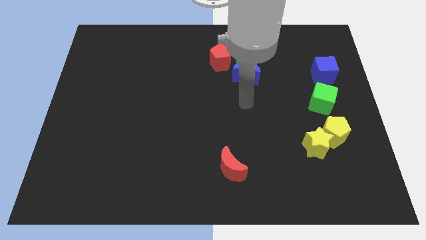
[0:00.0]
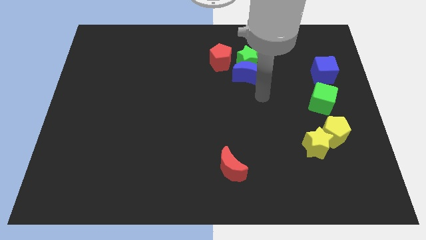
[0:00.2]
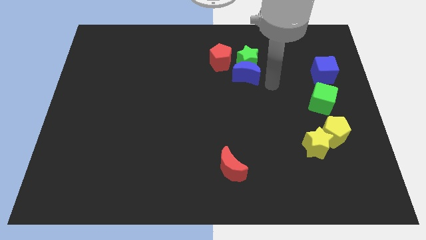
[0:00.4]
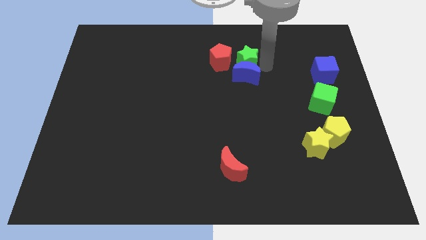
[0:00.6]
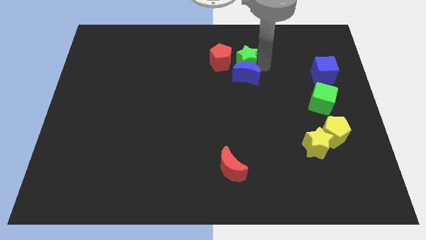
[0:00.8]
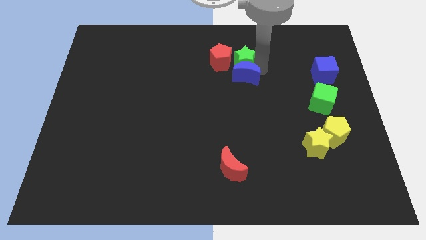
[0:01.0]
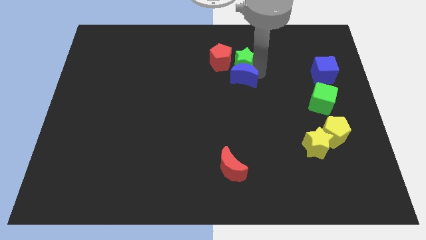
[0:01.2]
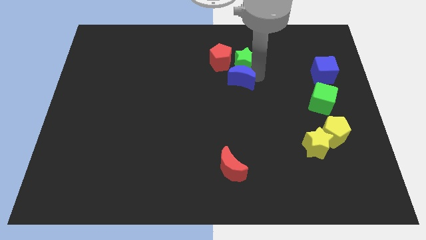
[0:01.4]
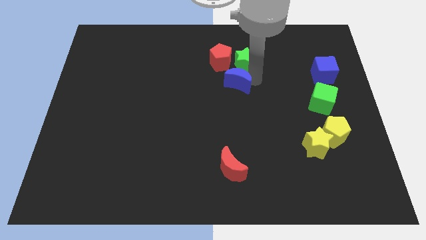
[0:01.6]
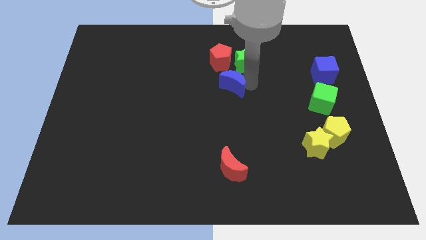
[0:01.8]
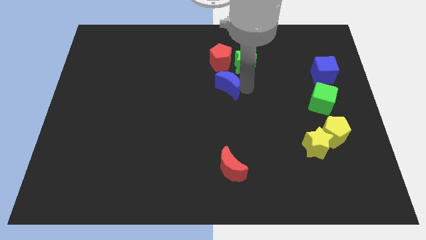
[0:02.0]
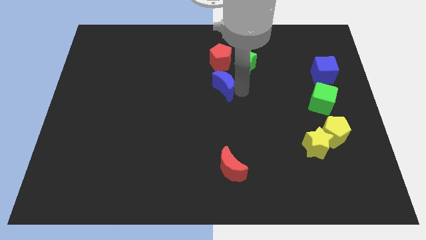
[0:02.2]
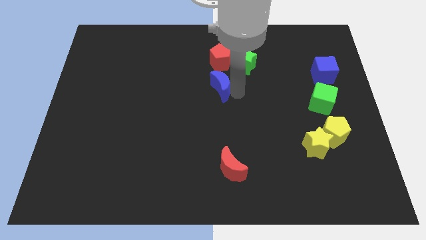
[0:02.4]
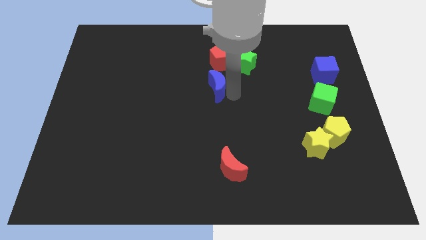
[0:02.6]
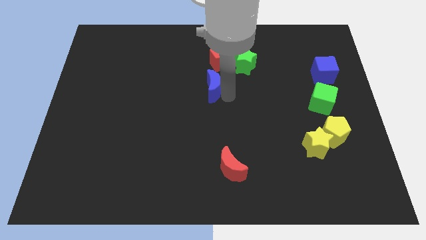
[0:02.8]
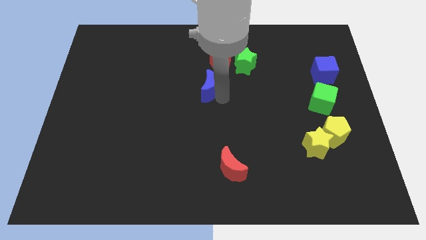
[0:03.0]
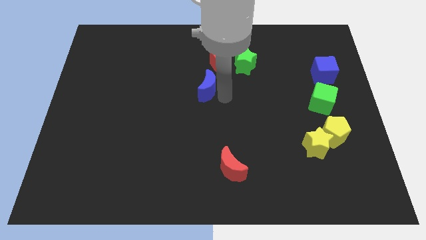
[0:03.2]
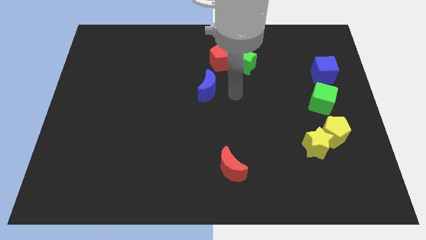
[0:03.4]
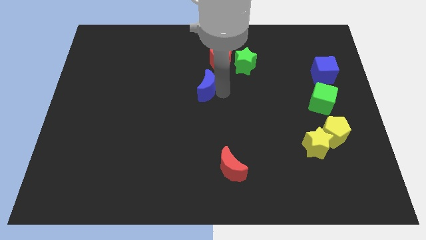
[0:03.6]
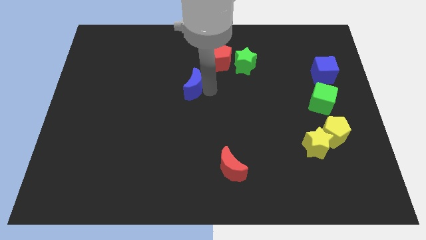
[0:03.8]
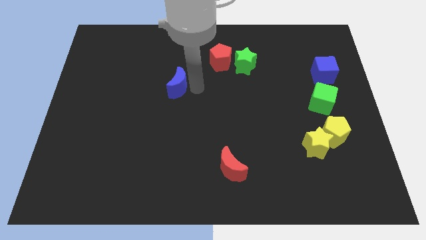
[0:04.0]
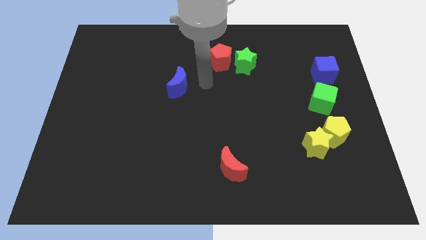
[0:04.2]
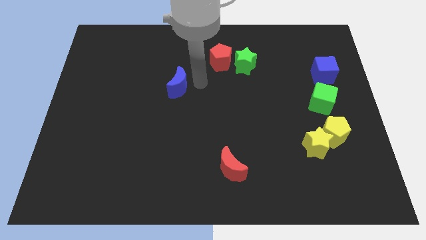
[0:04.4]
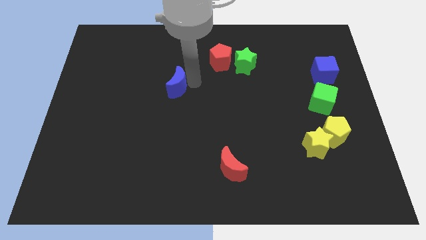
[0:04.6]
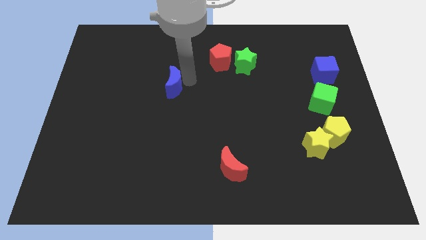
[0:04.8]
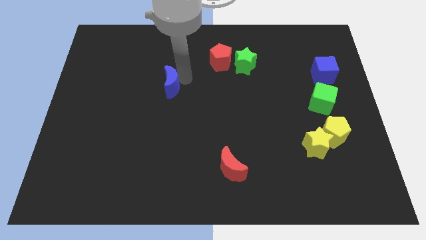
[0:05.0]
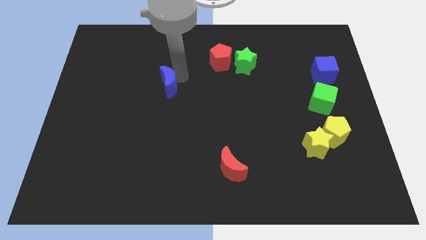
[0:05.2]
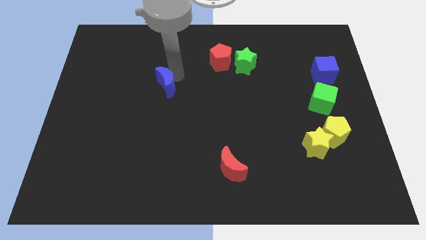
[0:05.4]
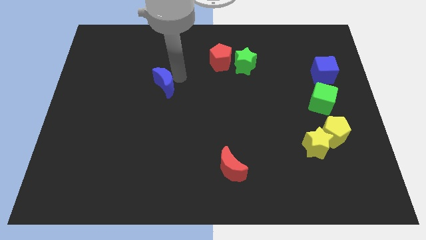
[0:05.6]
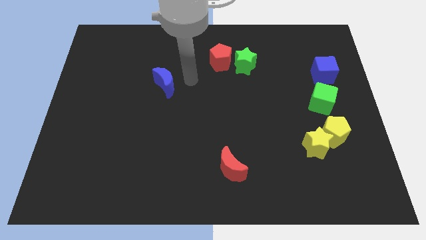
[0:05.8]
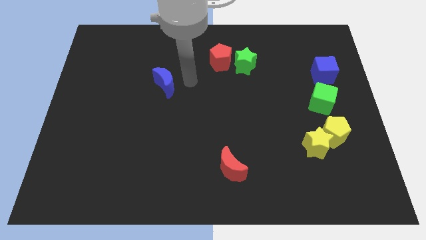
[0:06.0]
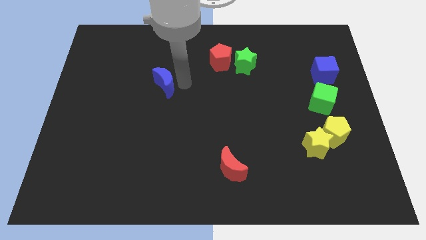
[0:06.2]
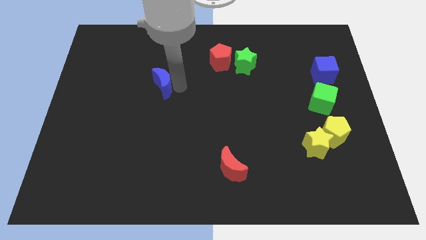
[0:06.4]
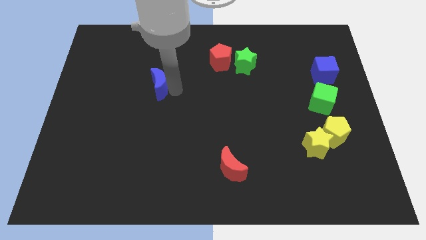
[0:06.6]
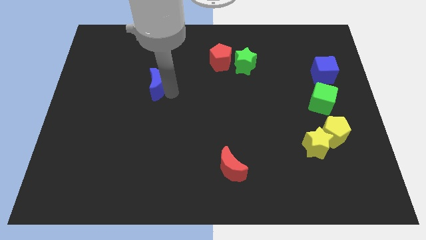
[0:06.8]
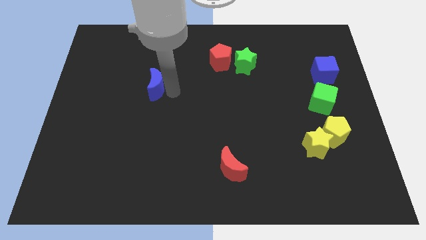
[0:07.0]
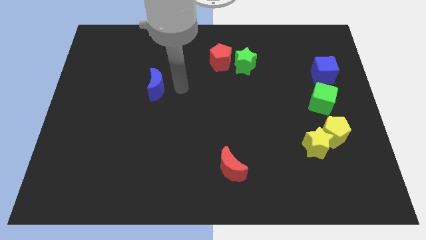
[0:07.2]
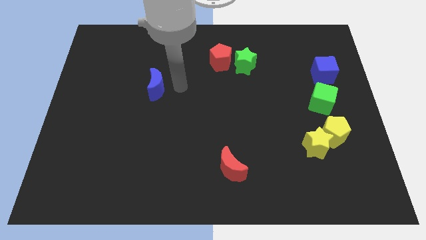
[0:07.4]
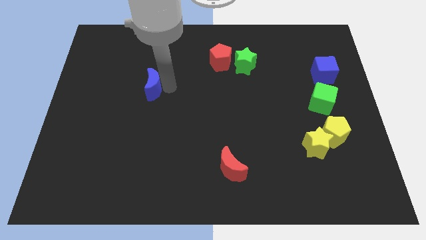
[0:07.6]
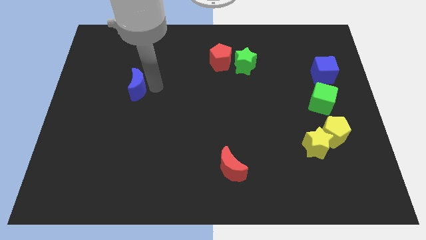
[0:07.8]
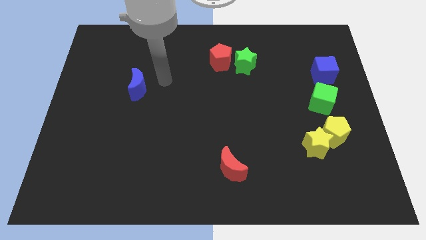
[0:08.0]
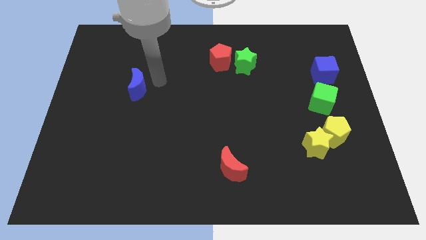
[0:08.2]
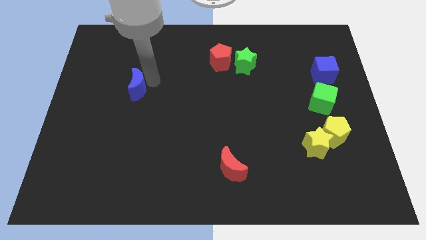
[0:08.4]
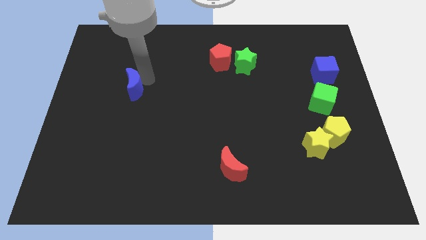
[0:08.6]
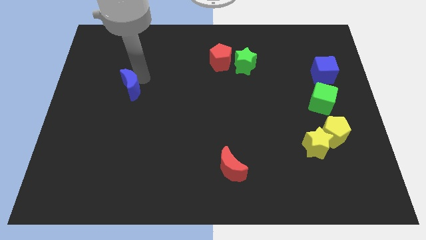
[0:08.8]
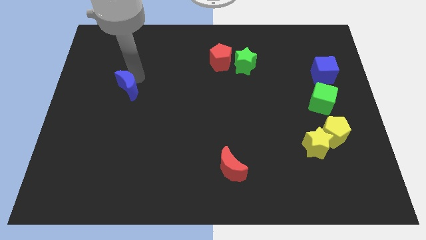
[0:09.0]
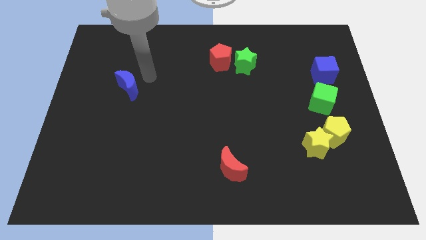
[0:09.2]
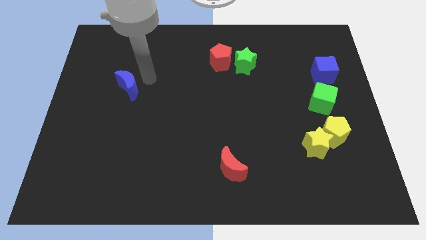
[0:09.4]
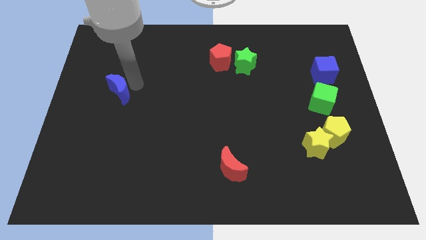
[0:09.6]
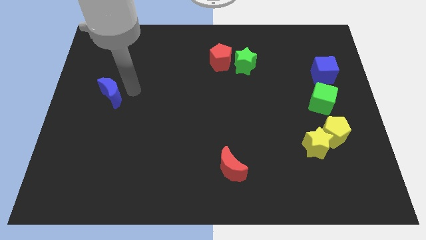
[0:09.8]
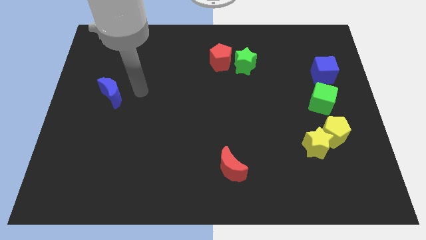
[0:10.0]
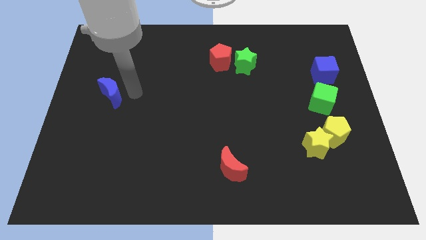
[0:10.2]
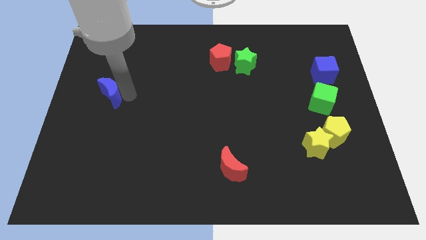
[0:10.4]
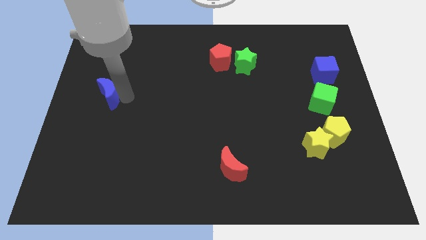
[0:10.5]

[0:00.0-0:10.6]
push the blue moon to the center left

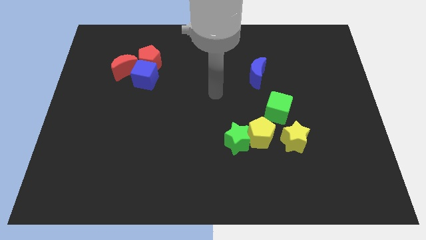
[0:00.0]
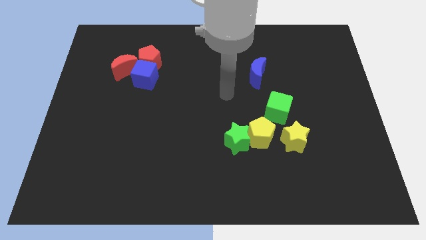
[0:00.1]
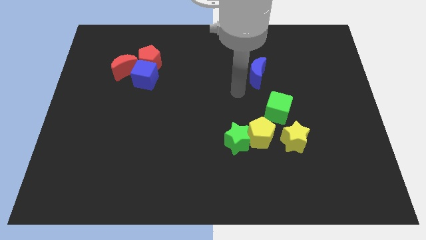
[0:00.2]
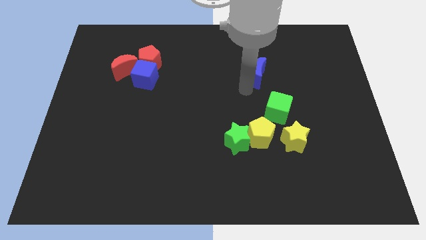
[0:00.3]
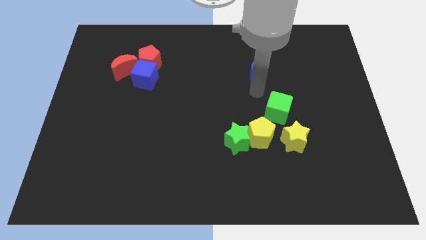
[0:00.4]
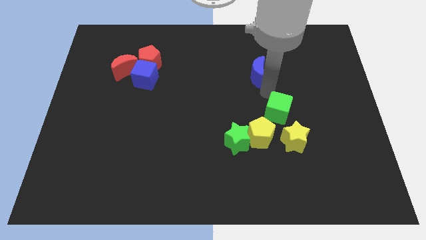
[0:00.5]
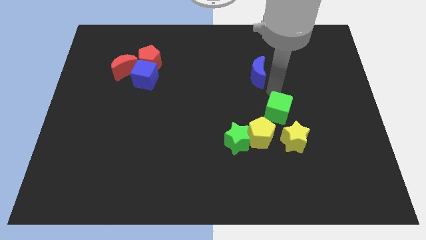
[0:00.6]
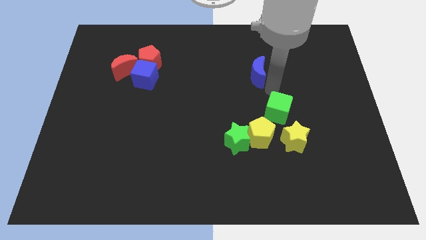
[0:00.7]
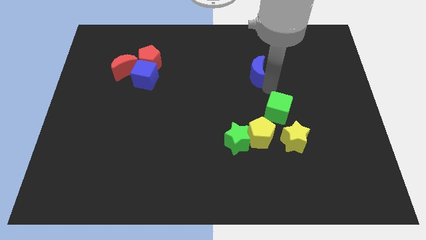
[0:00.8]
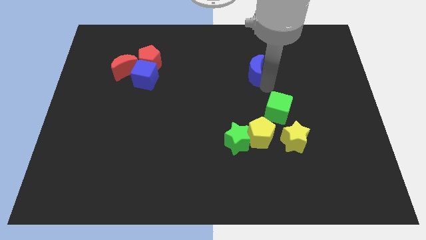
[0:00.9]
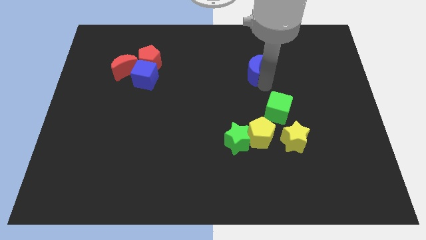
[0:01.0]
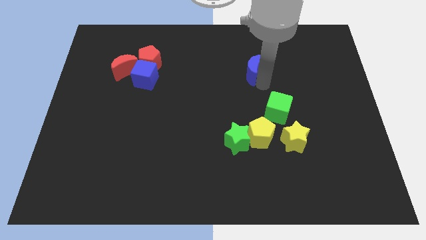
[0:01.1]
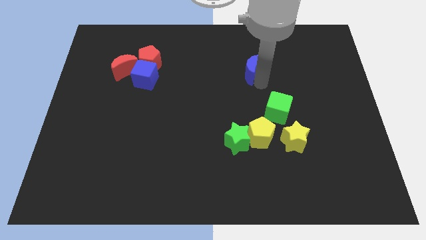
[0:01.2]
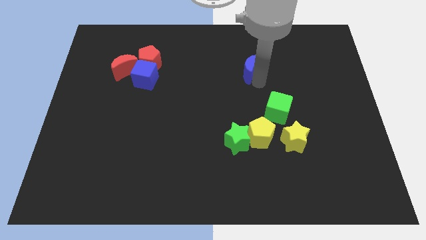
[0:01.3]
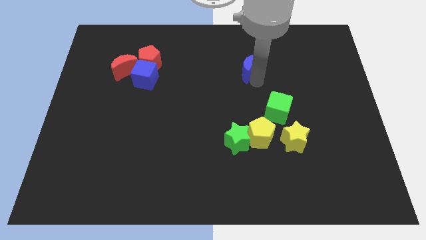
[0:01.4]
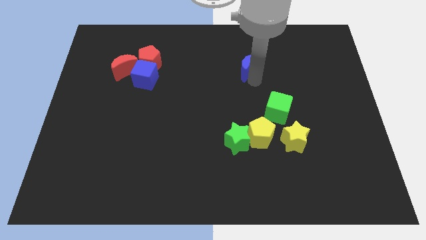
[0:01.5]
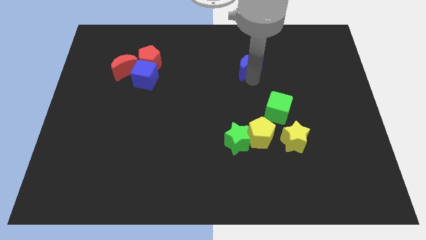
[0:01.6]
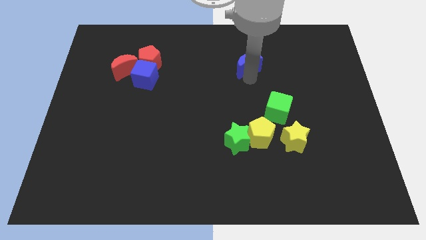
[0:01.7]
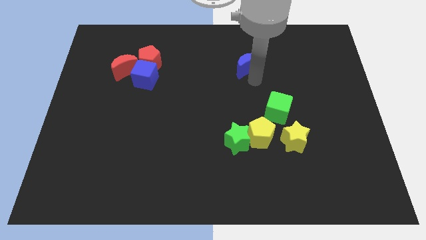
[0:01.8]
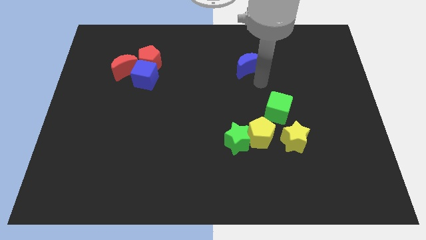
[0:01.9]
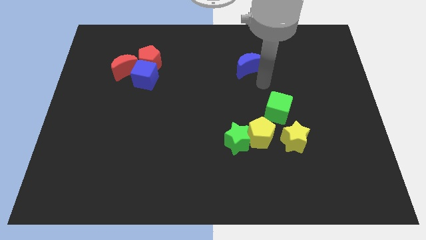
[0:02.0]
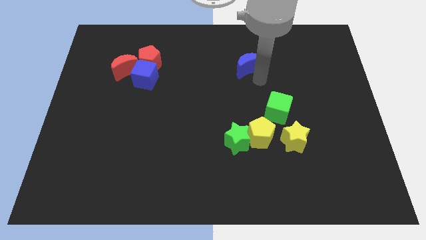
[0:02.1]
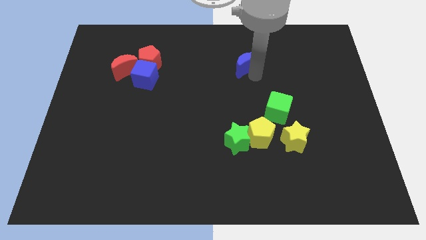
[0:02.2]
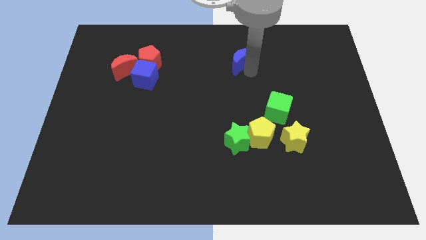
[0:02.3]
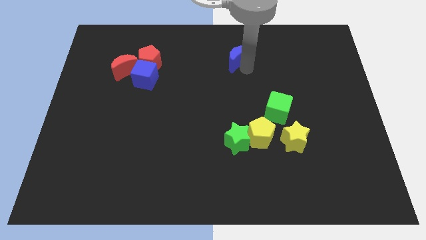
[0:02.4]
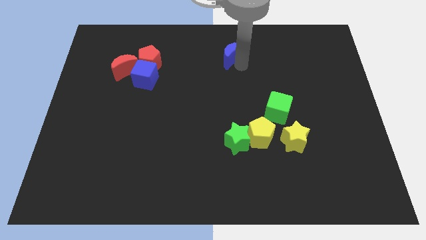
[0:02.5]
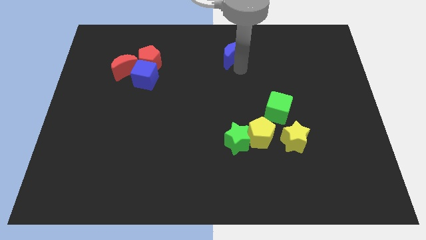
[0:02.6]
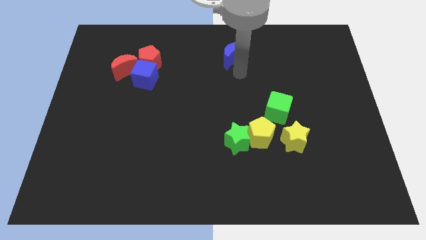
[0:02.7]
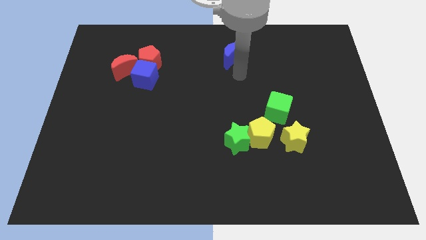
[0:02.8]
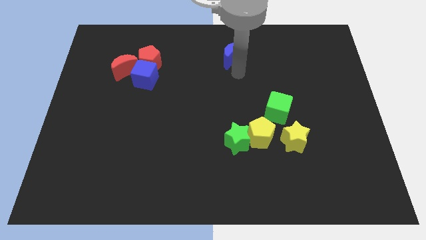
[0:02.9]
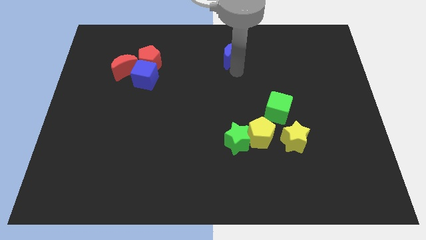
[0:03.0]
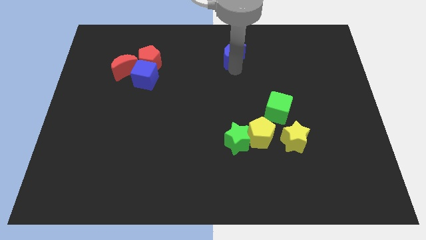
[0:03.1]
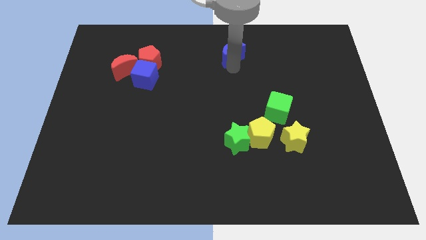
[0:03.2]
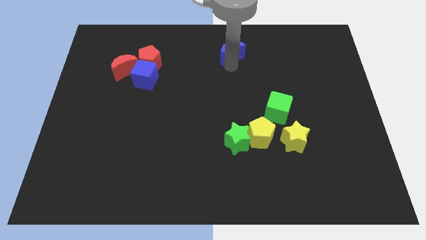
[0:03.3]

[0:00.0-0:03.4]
push the blue moon to the top side
